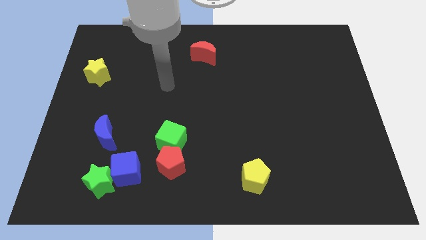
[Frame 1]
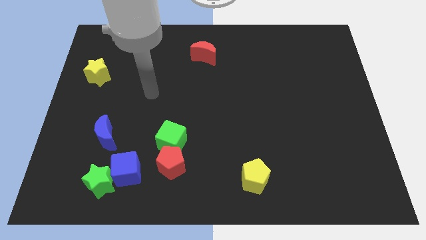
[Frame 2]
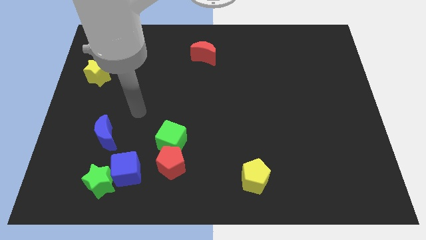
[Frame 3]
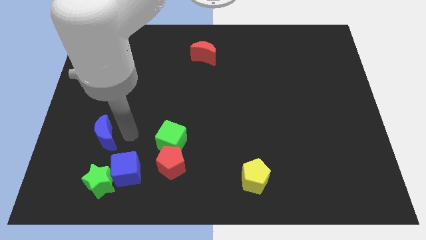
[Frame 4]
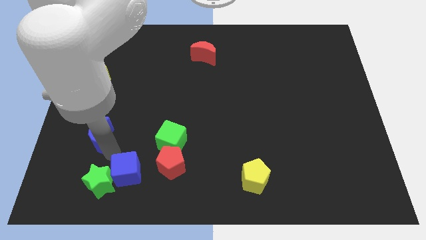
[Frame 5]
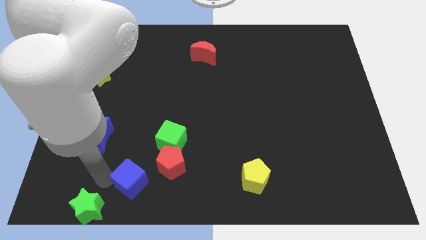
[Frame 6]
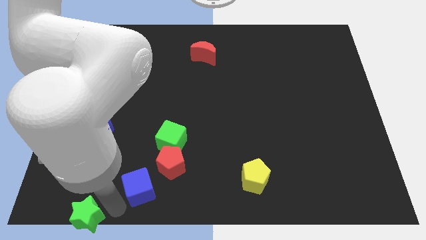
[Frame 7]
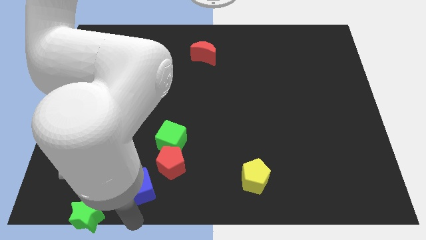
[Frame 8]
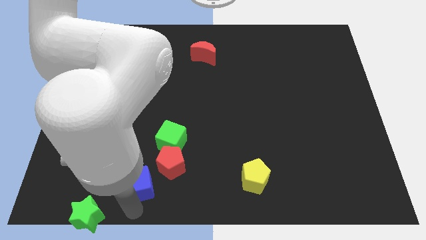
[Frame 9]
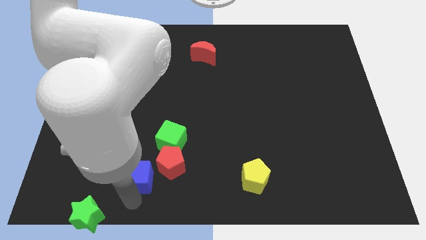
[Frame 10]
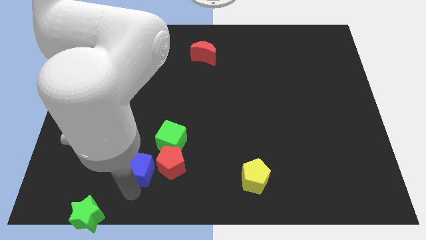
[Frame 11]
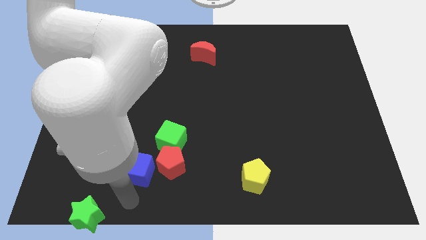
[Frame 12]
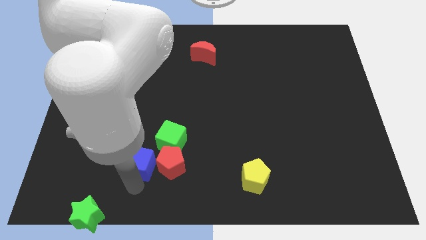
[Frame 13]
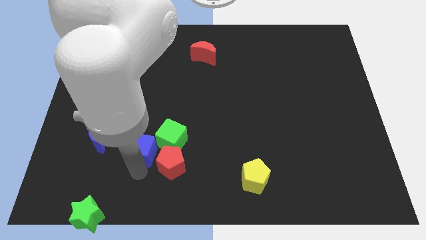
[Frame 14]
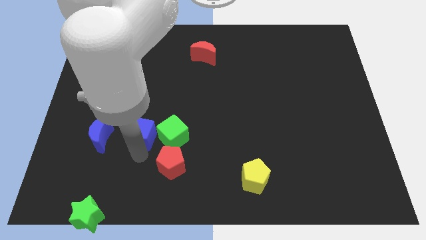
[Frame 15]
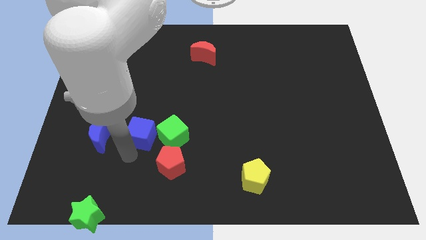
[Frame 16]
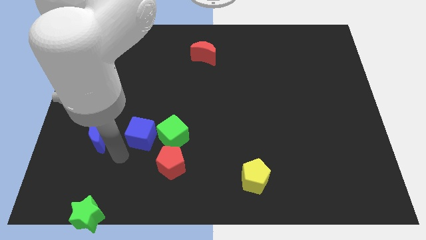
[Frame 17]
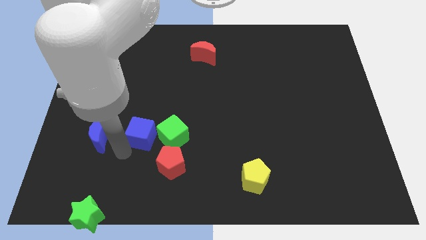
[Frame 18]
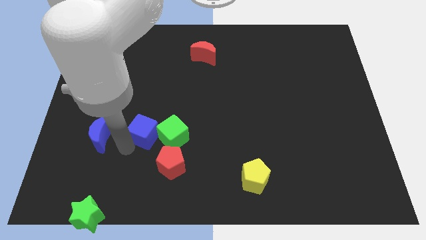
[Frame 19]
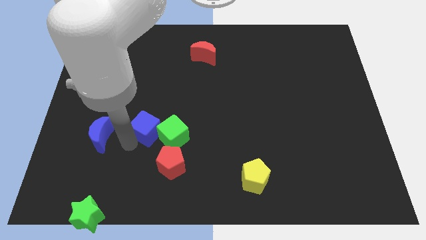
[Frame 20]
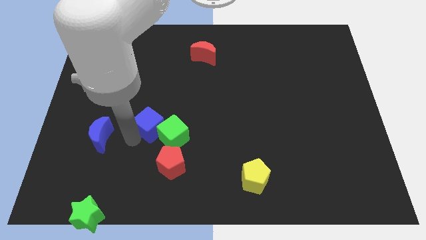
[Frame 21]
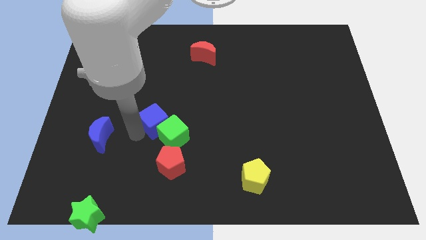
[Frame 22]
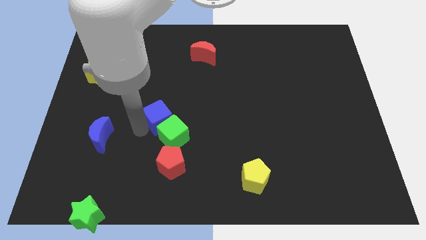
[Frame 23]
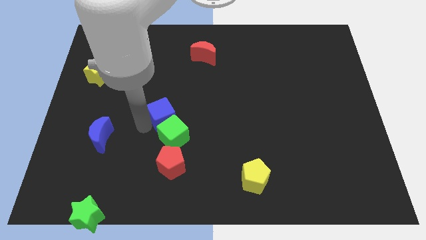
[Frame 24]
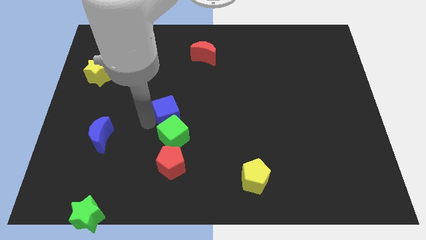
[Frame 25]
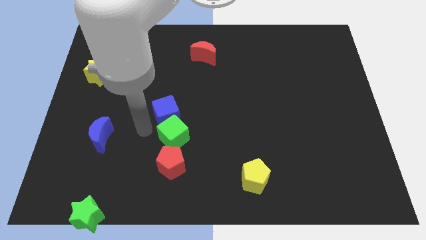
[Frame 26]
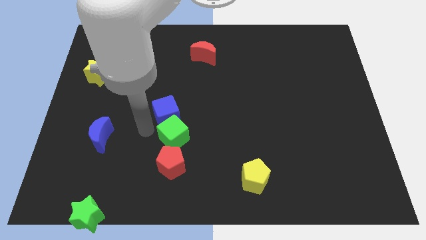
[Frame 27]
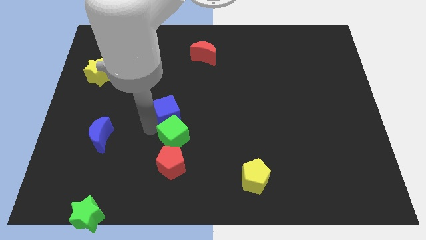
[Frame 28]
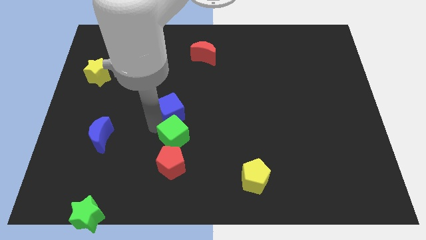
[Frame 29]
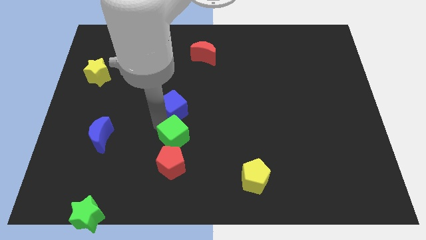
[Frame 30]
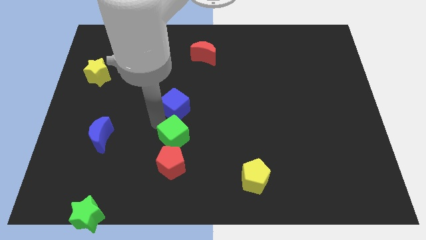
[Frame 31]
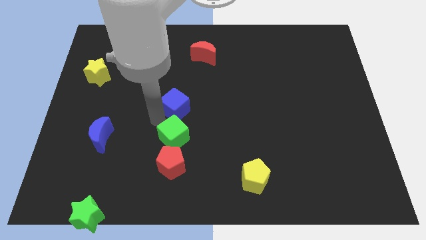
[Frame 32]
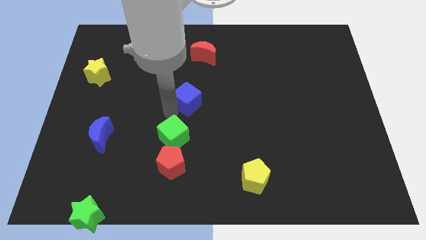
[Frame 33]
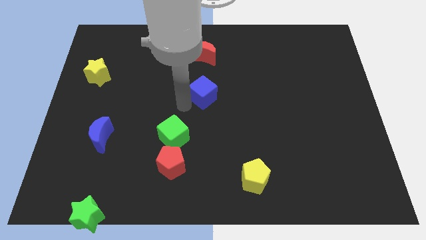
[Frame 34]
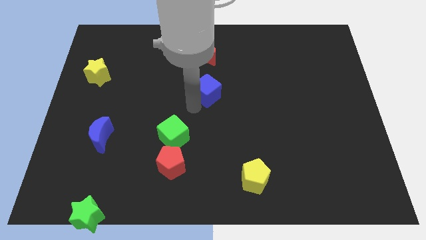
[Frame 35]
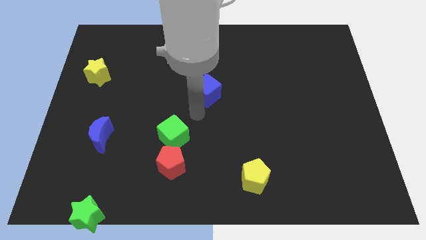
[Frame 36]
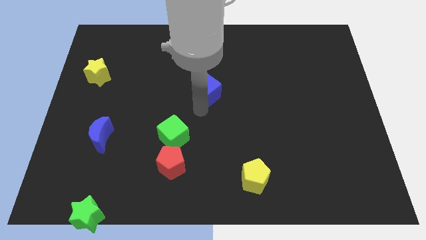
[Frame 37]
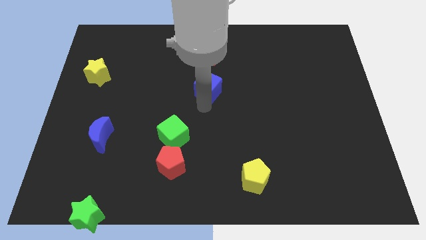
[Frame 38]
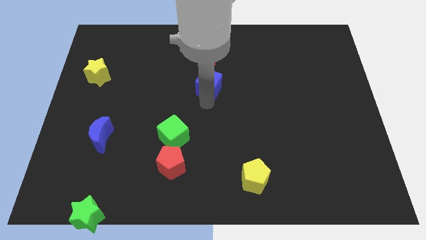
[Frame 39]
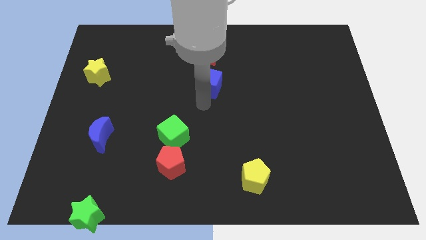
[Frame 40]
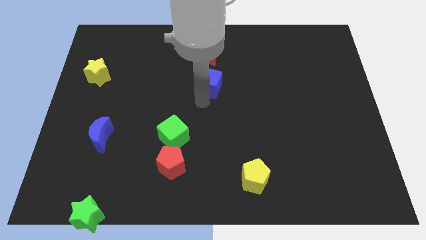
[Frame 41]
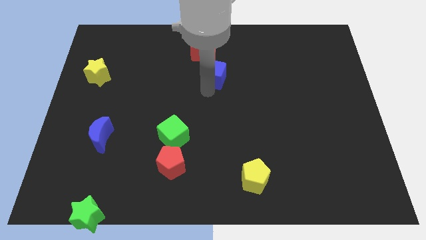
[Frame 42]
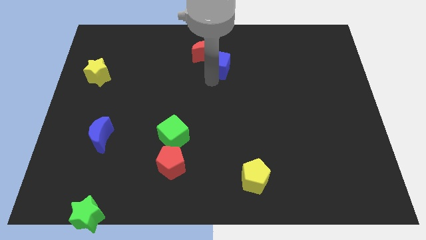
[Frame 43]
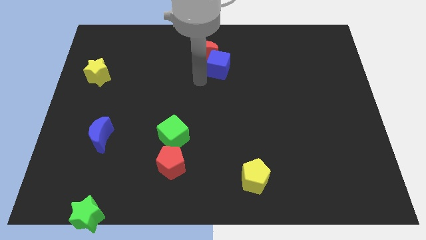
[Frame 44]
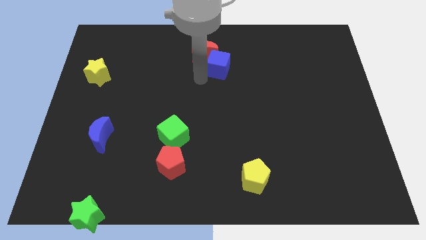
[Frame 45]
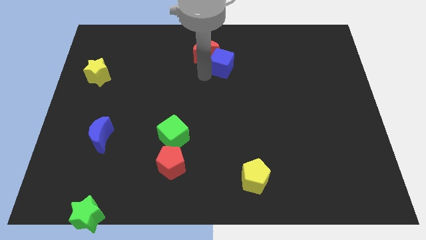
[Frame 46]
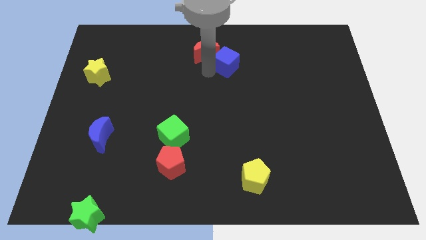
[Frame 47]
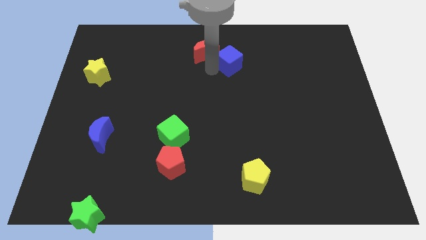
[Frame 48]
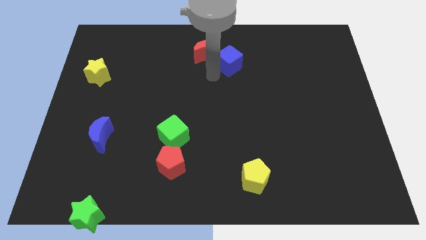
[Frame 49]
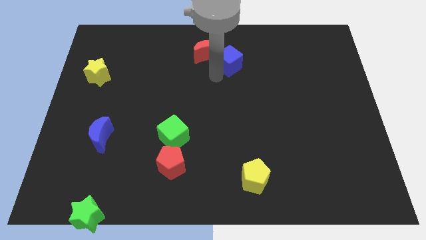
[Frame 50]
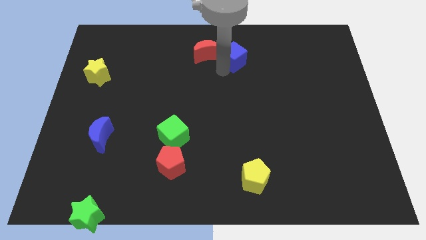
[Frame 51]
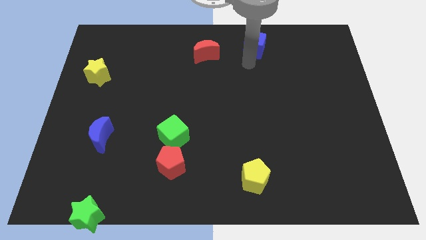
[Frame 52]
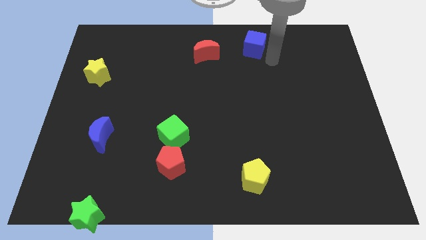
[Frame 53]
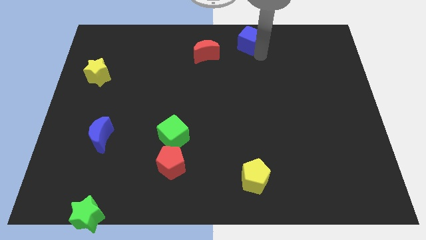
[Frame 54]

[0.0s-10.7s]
push the blue cube to the towards your base
